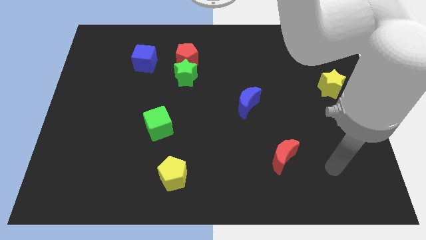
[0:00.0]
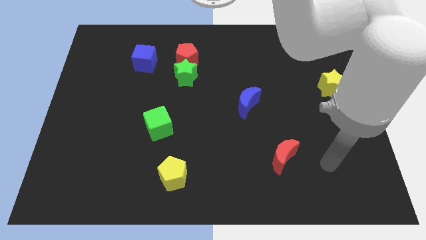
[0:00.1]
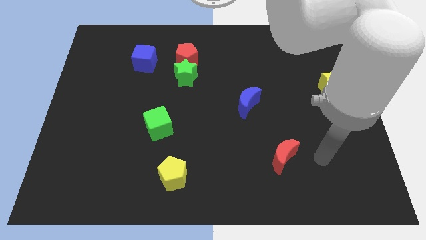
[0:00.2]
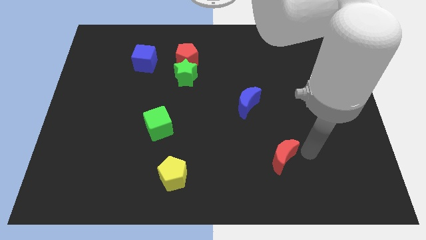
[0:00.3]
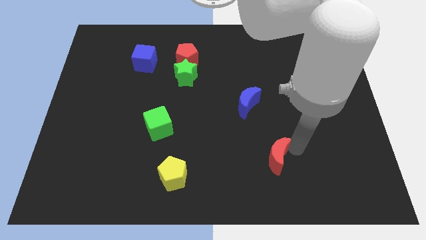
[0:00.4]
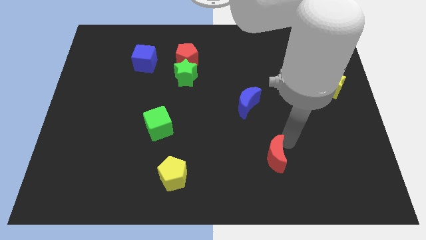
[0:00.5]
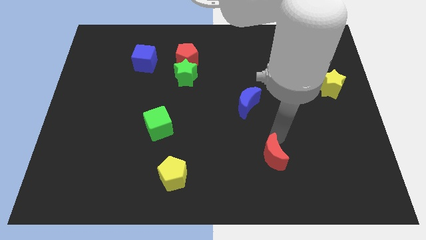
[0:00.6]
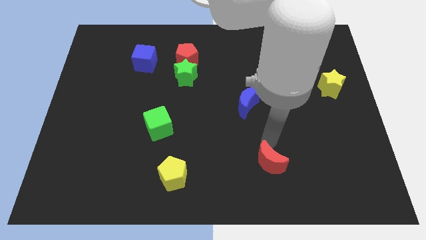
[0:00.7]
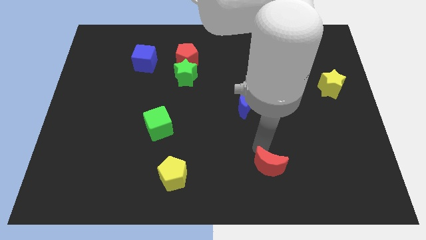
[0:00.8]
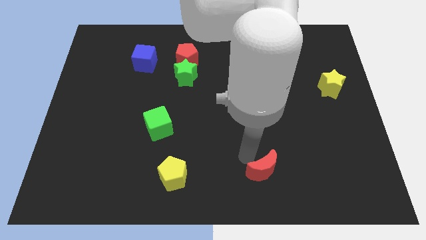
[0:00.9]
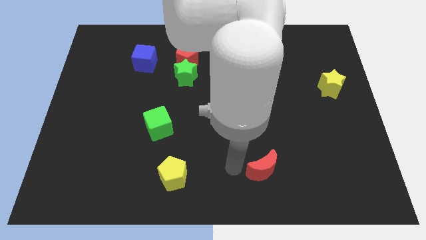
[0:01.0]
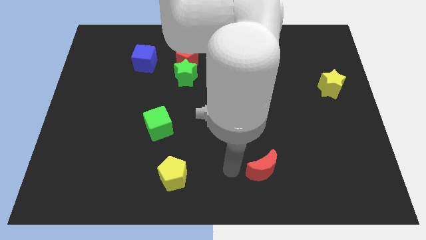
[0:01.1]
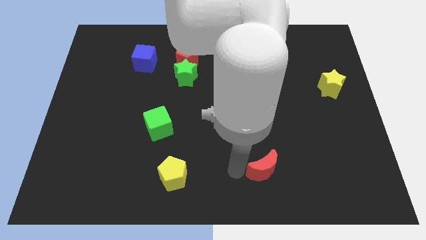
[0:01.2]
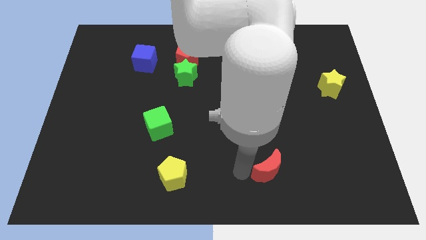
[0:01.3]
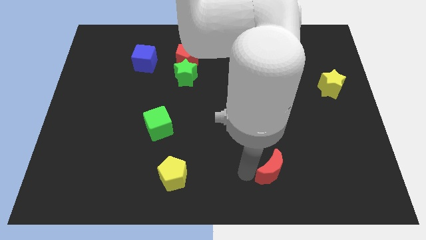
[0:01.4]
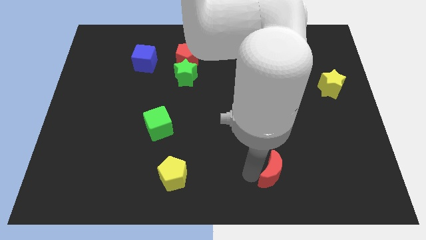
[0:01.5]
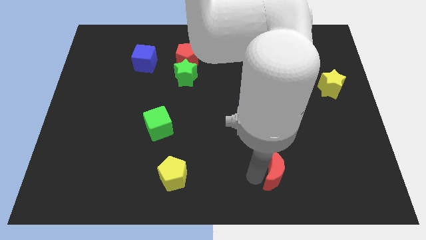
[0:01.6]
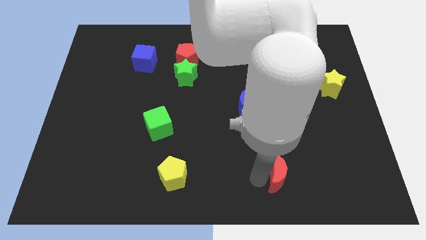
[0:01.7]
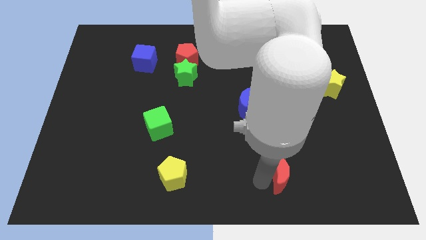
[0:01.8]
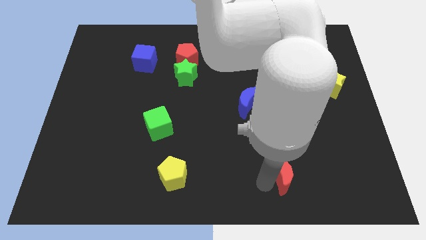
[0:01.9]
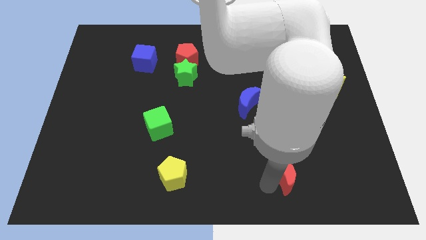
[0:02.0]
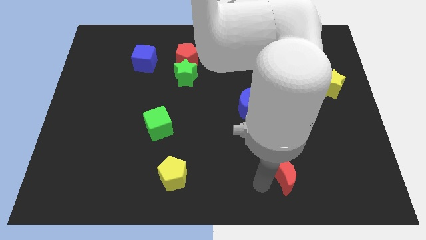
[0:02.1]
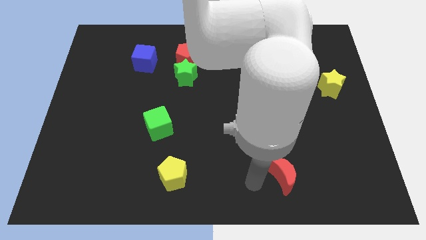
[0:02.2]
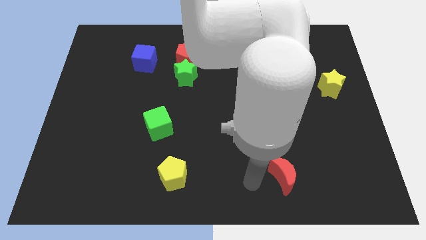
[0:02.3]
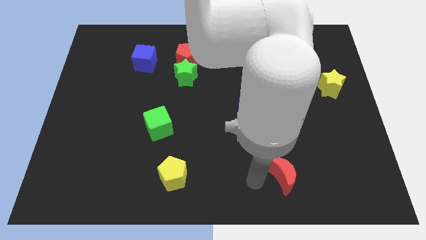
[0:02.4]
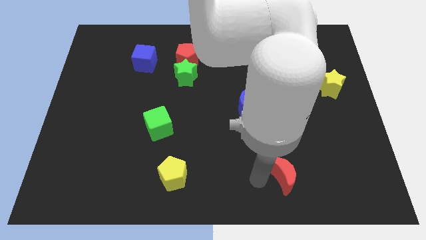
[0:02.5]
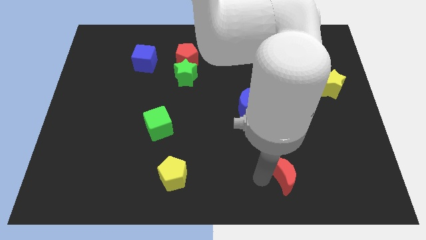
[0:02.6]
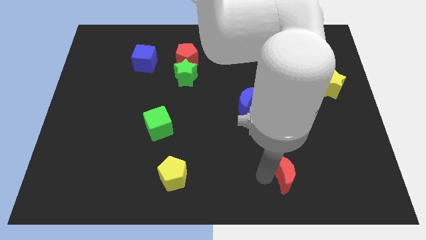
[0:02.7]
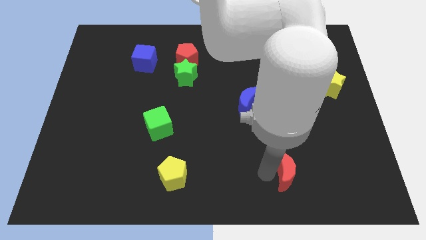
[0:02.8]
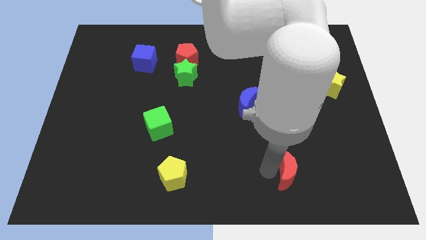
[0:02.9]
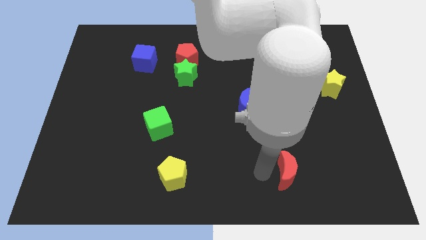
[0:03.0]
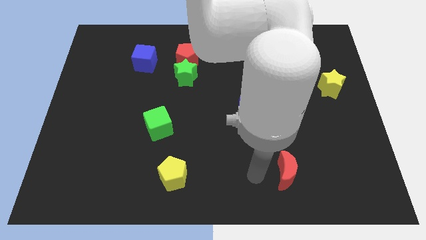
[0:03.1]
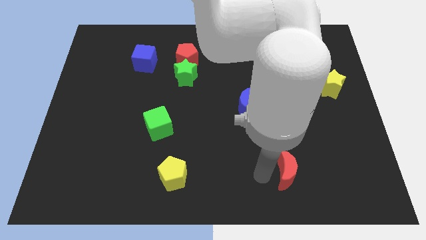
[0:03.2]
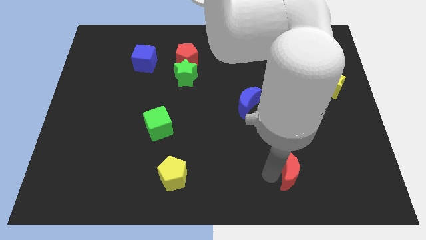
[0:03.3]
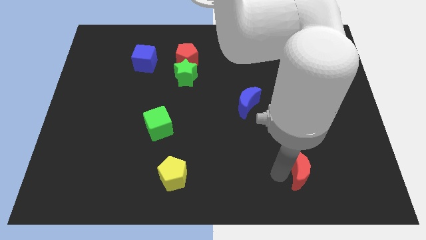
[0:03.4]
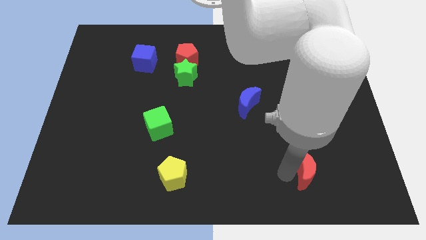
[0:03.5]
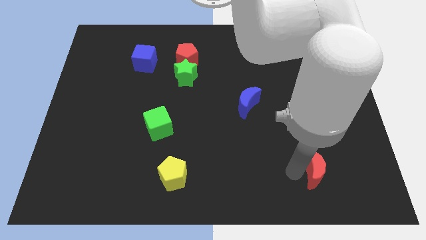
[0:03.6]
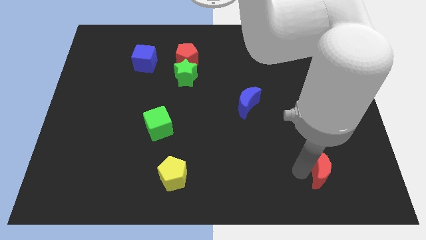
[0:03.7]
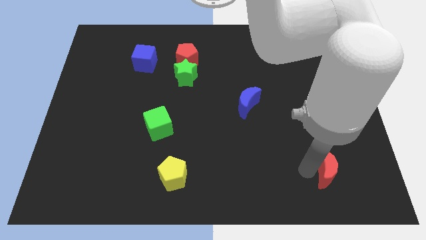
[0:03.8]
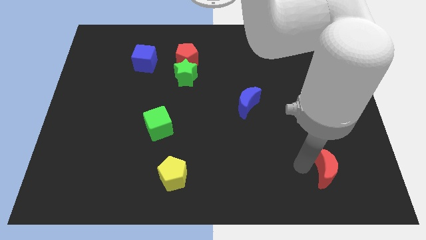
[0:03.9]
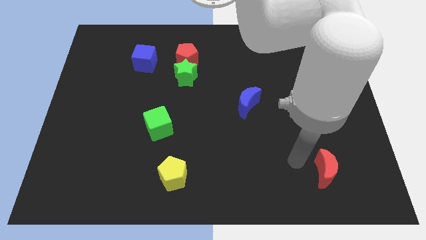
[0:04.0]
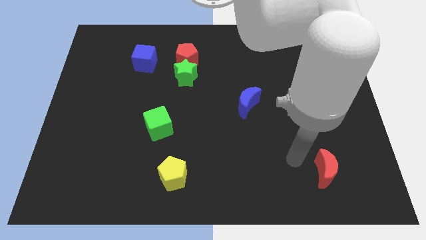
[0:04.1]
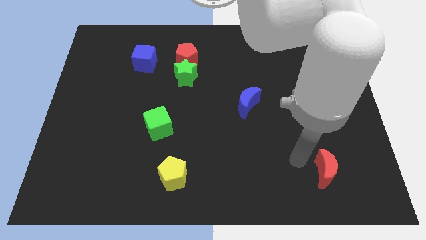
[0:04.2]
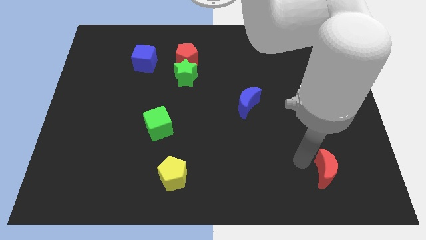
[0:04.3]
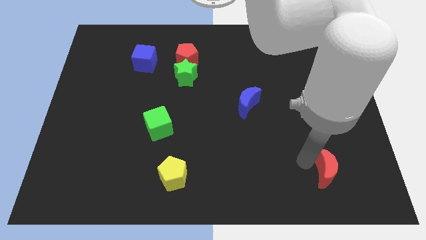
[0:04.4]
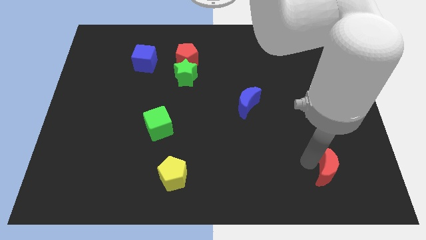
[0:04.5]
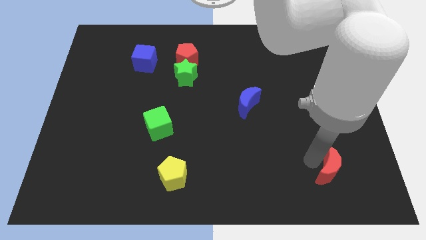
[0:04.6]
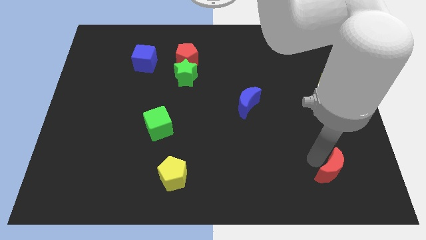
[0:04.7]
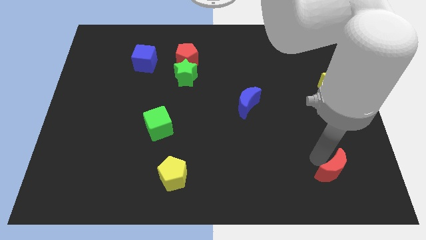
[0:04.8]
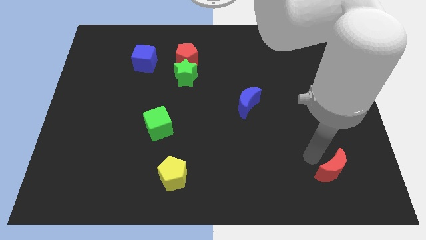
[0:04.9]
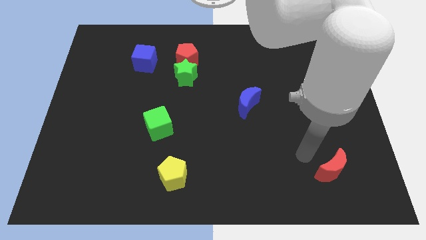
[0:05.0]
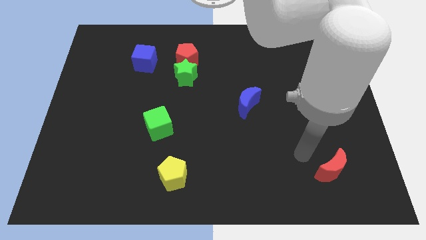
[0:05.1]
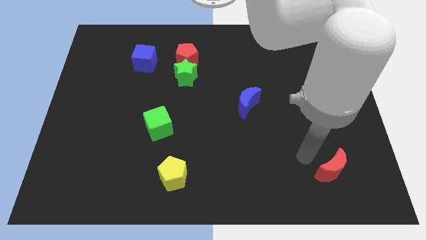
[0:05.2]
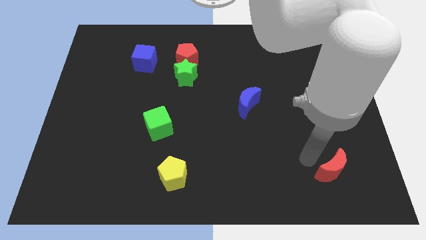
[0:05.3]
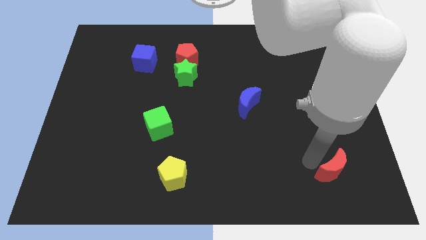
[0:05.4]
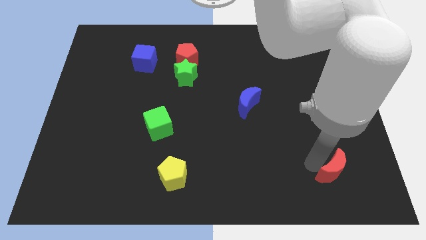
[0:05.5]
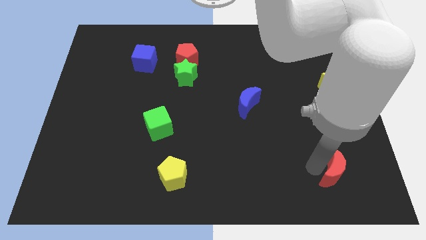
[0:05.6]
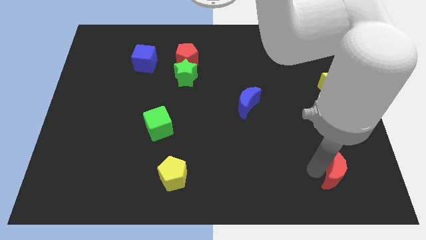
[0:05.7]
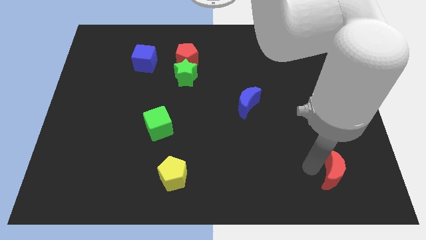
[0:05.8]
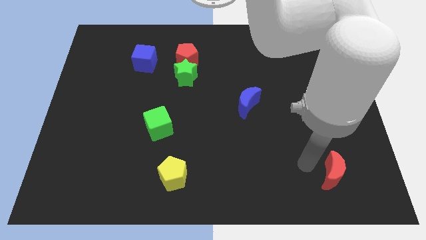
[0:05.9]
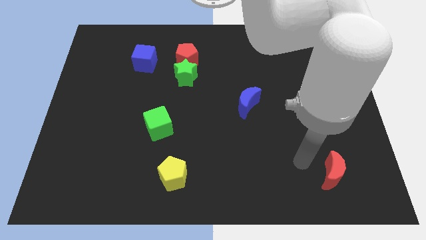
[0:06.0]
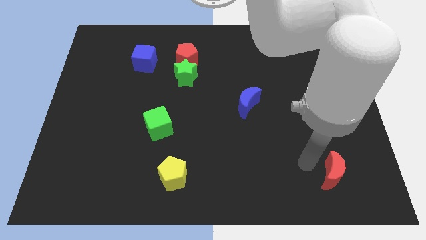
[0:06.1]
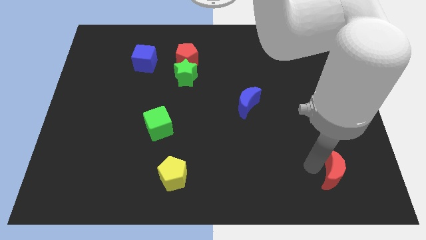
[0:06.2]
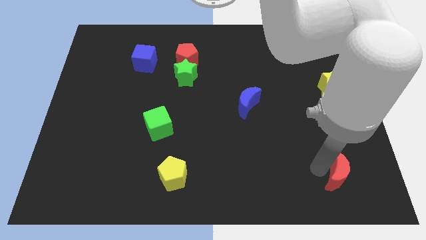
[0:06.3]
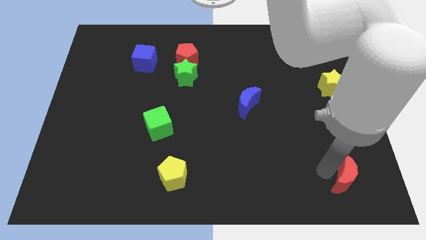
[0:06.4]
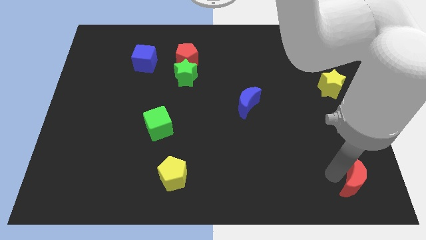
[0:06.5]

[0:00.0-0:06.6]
put the red moon to the bottom right corner

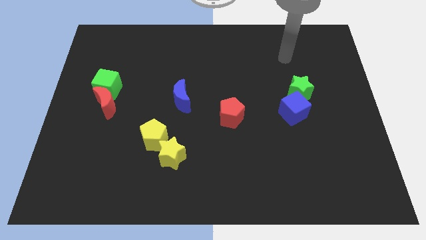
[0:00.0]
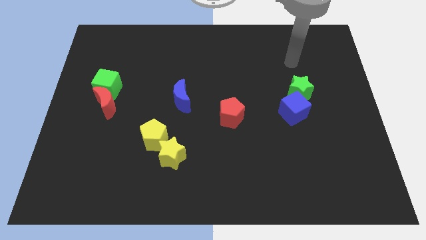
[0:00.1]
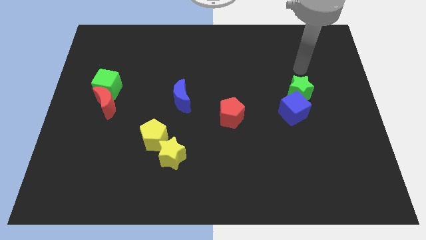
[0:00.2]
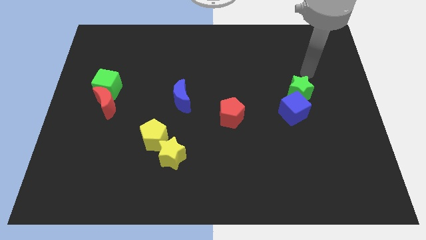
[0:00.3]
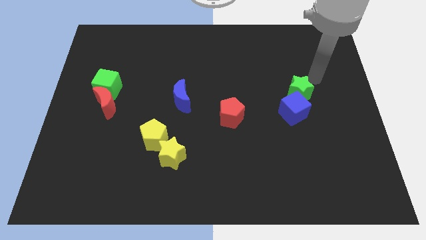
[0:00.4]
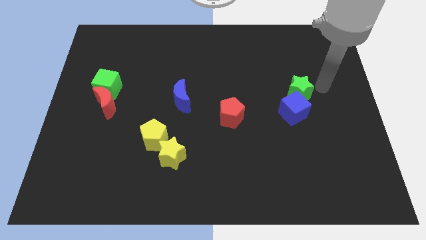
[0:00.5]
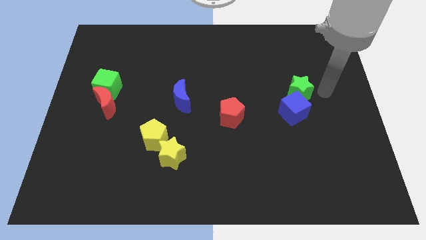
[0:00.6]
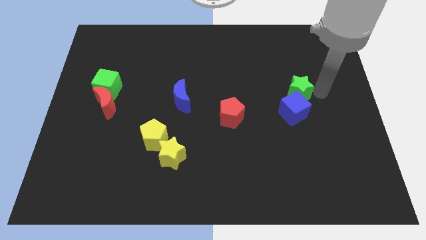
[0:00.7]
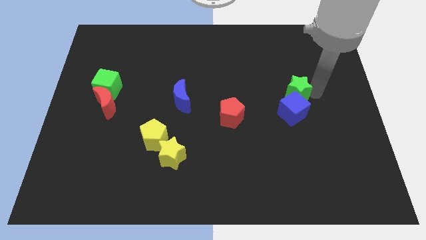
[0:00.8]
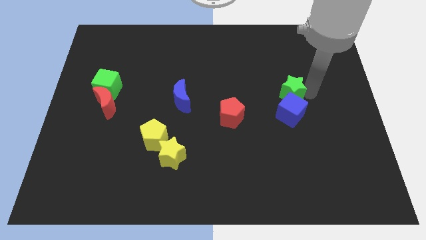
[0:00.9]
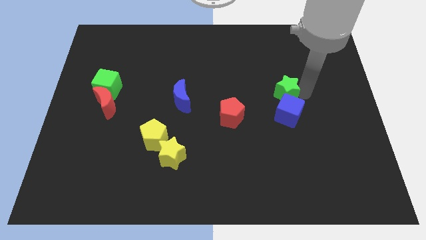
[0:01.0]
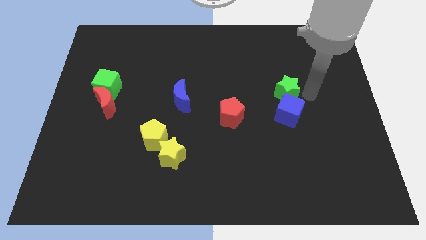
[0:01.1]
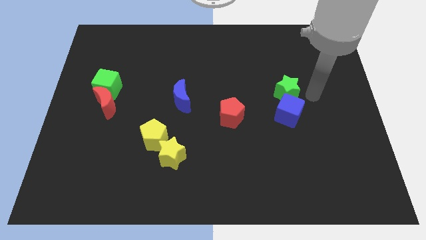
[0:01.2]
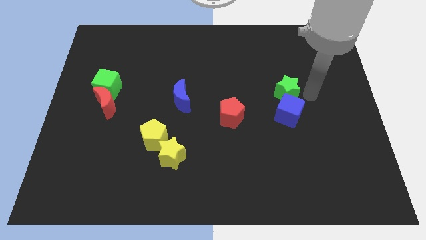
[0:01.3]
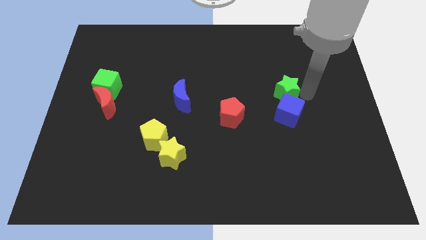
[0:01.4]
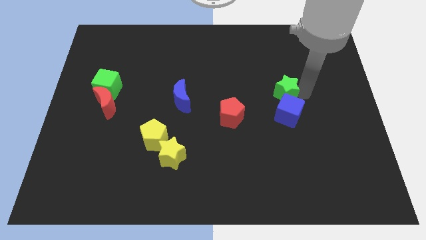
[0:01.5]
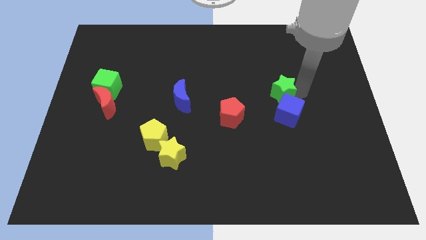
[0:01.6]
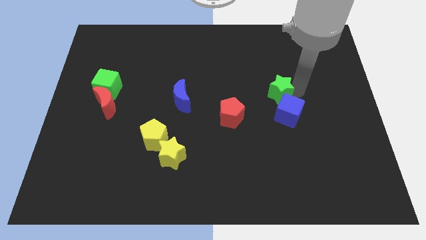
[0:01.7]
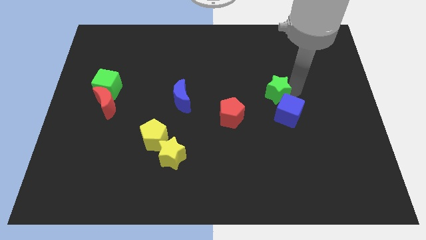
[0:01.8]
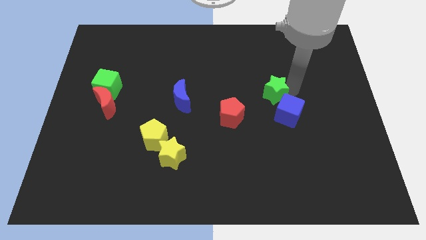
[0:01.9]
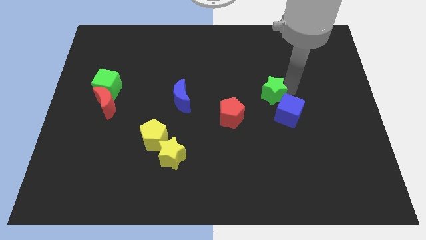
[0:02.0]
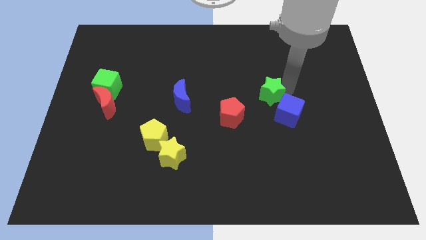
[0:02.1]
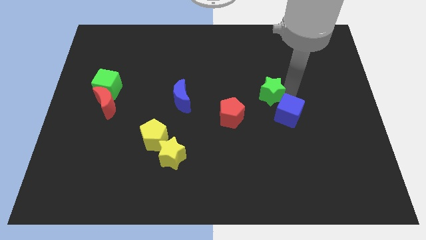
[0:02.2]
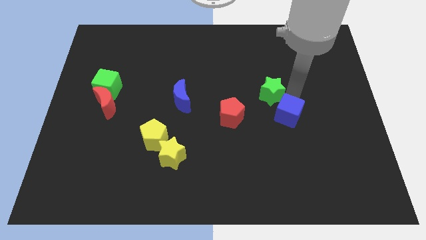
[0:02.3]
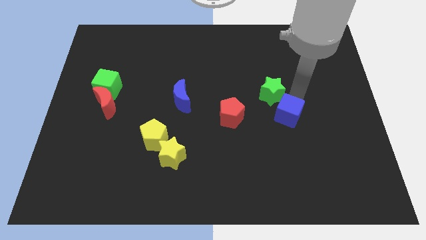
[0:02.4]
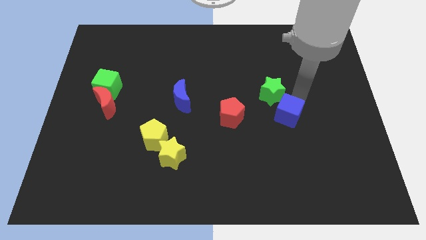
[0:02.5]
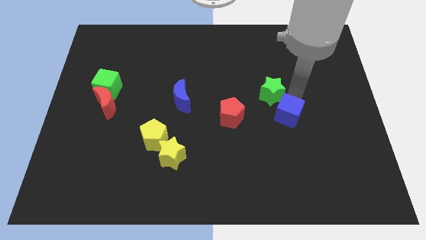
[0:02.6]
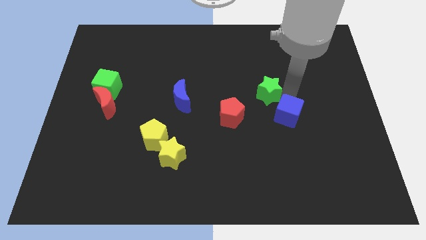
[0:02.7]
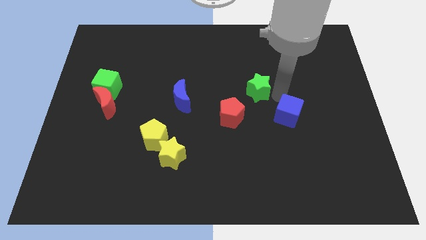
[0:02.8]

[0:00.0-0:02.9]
move the green star to the middle of the board
